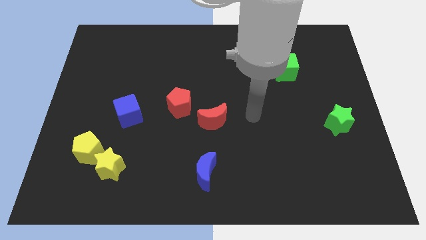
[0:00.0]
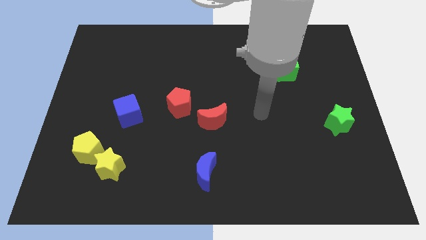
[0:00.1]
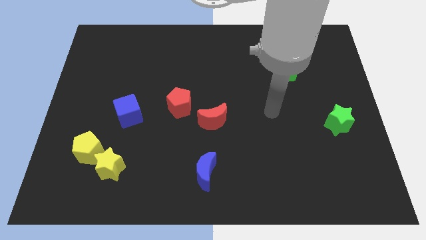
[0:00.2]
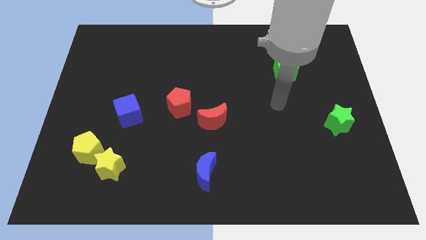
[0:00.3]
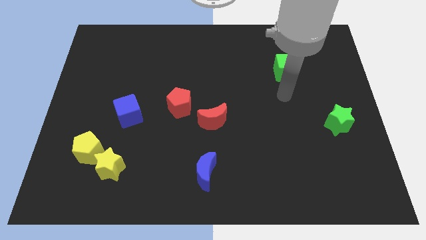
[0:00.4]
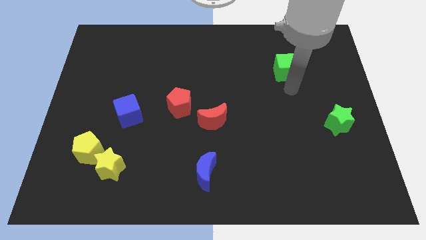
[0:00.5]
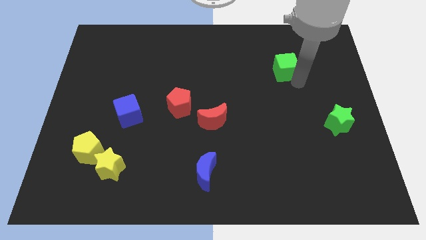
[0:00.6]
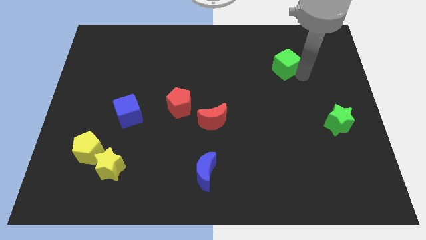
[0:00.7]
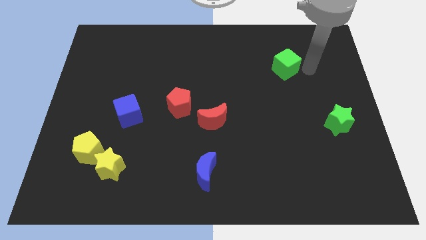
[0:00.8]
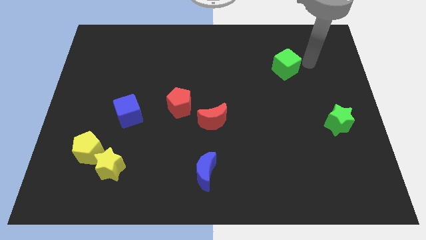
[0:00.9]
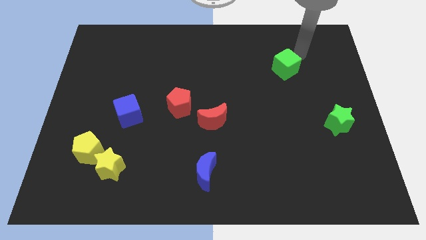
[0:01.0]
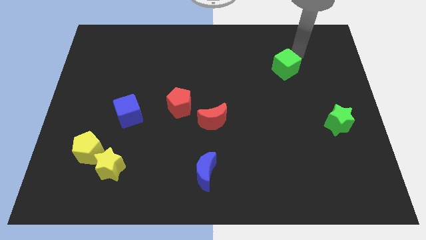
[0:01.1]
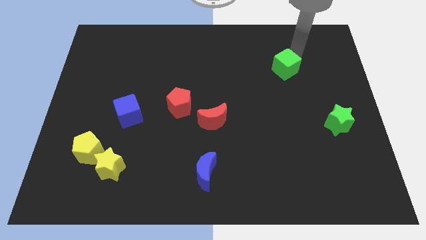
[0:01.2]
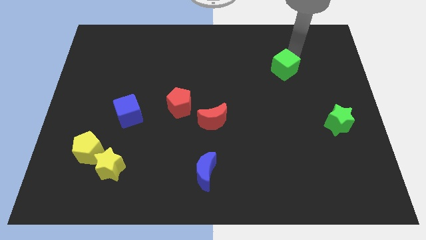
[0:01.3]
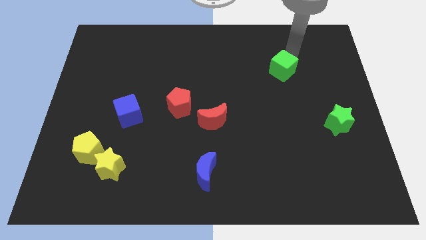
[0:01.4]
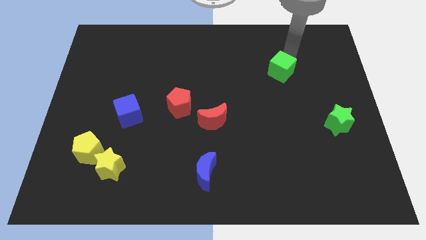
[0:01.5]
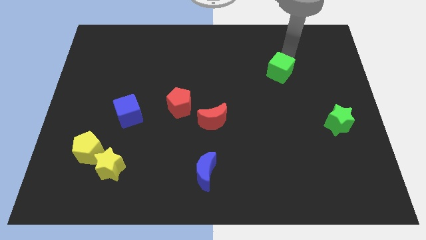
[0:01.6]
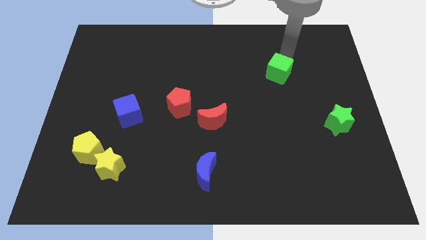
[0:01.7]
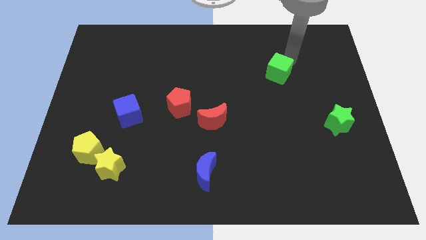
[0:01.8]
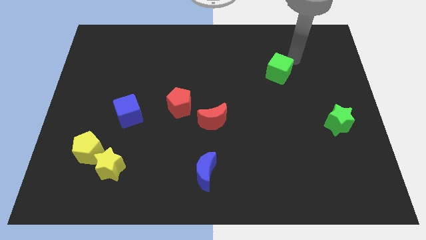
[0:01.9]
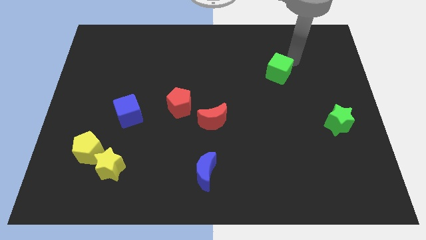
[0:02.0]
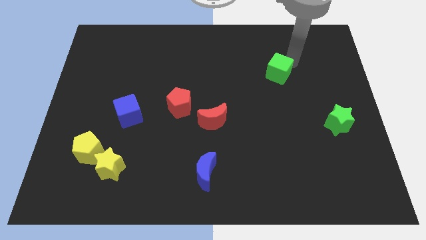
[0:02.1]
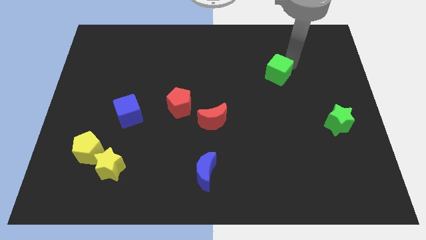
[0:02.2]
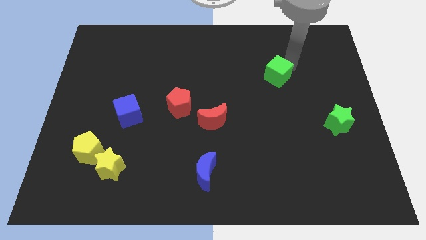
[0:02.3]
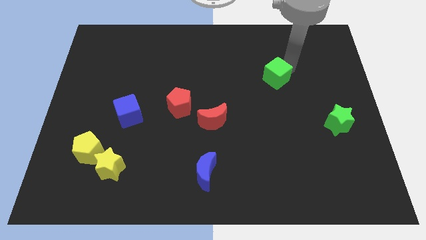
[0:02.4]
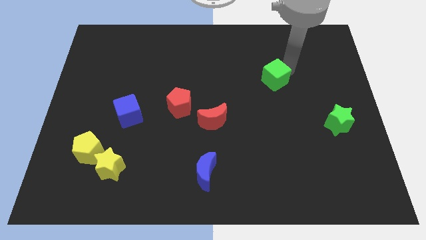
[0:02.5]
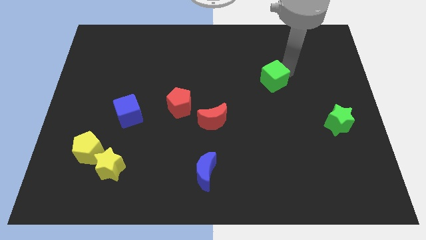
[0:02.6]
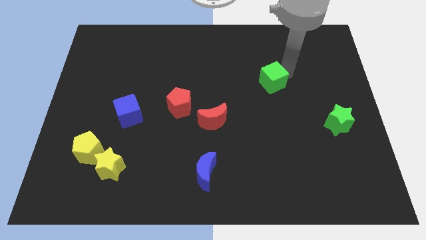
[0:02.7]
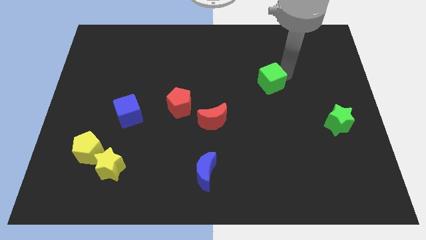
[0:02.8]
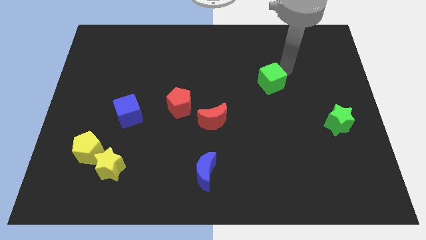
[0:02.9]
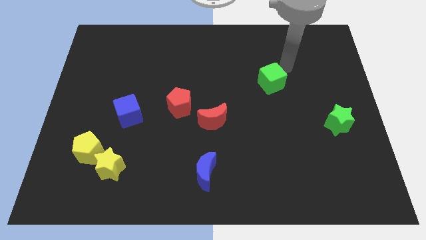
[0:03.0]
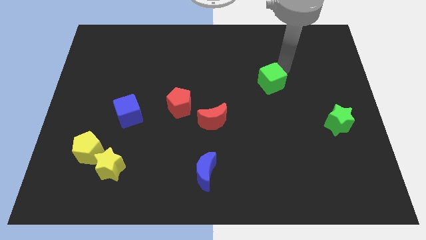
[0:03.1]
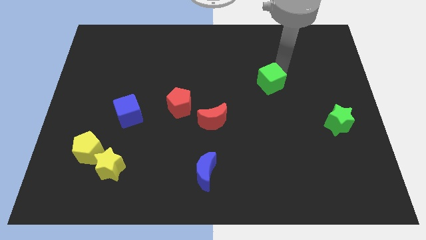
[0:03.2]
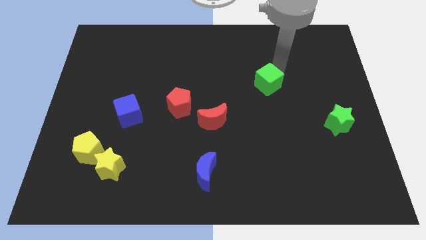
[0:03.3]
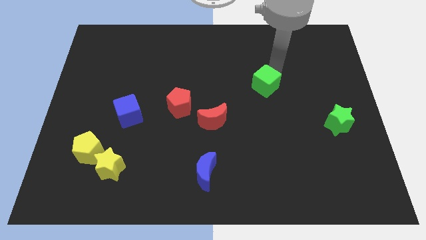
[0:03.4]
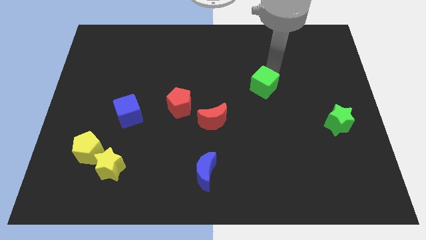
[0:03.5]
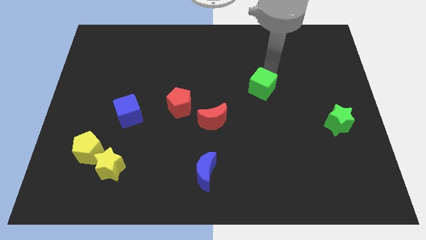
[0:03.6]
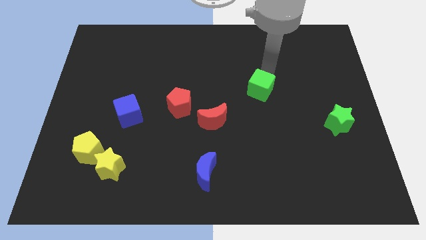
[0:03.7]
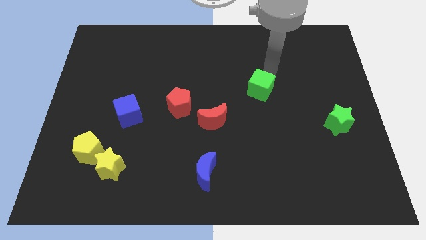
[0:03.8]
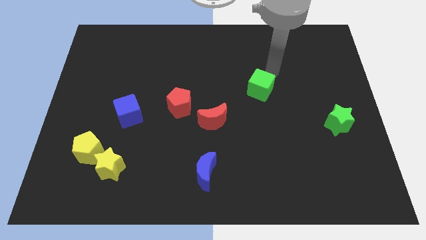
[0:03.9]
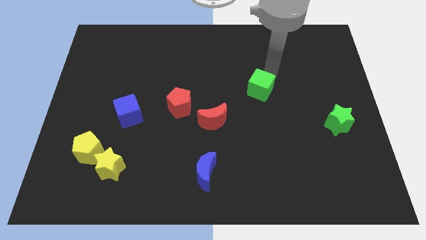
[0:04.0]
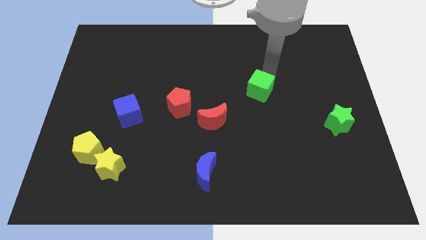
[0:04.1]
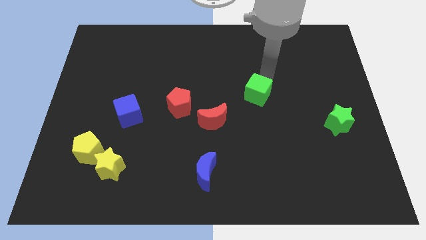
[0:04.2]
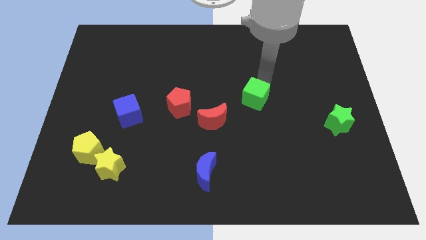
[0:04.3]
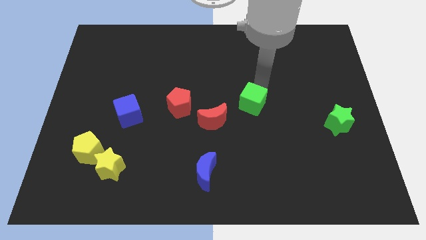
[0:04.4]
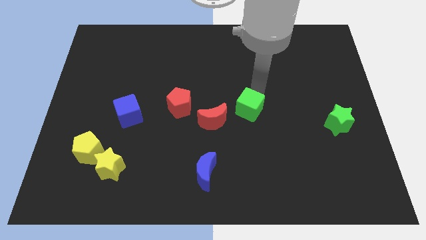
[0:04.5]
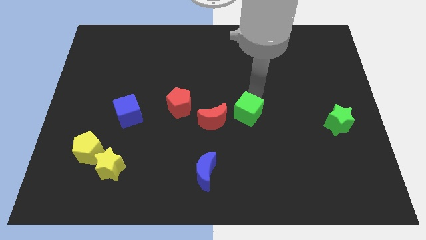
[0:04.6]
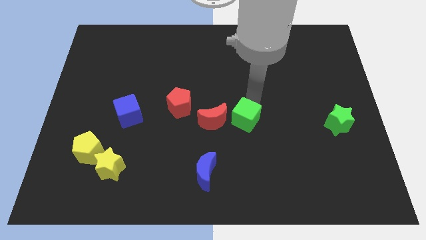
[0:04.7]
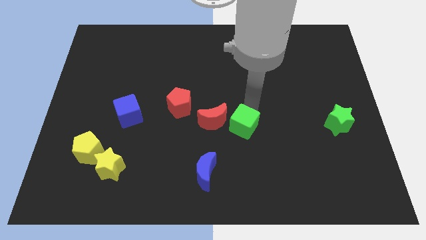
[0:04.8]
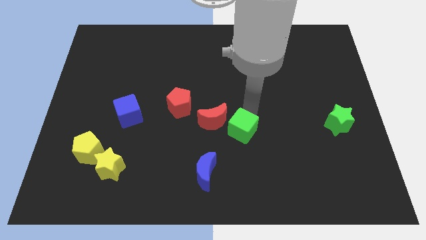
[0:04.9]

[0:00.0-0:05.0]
slide the green cube diagonally down and left

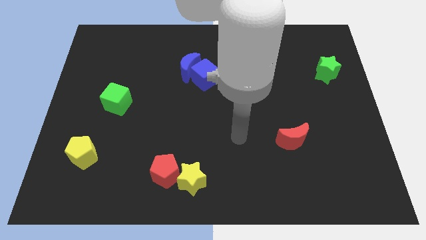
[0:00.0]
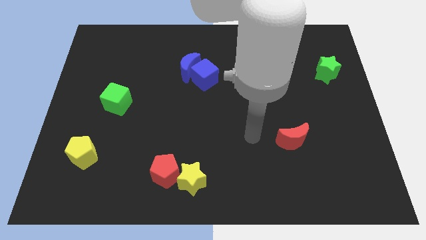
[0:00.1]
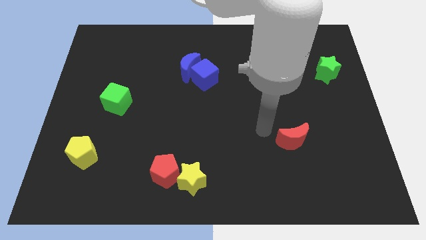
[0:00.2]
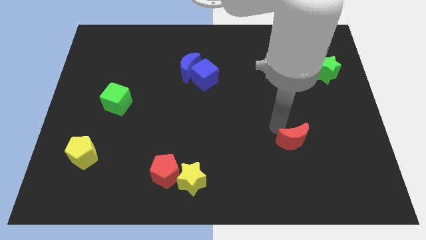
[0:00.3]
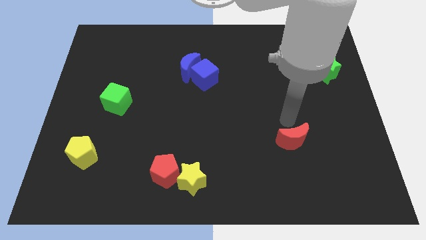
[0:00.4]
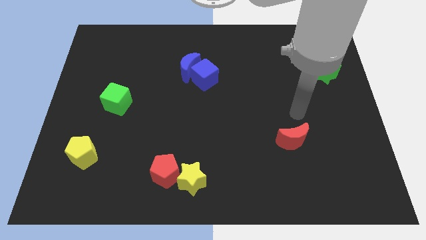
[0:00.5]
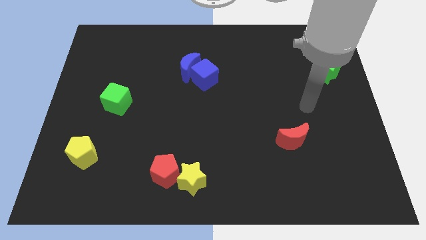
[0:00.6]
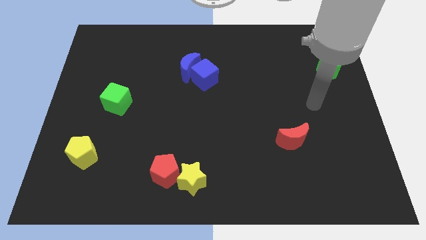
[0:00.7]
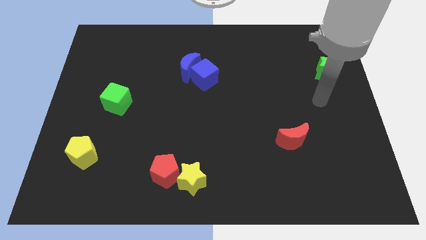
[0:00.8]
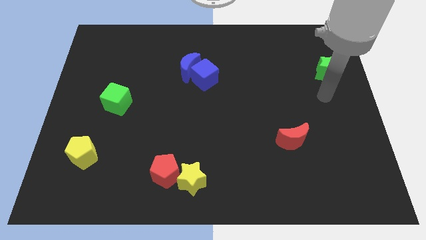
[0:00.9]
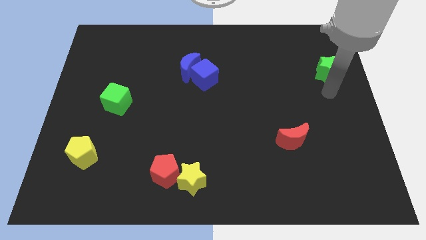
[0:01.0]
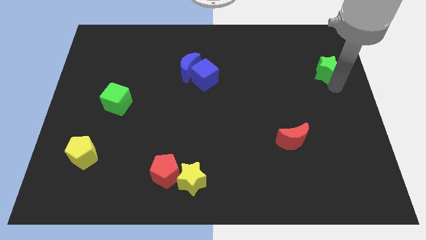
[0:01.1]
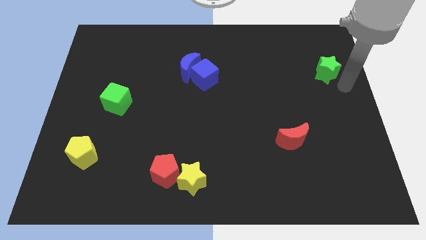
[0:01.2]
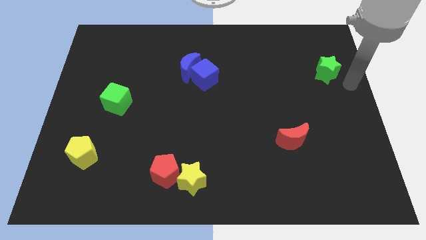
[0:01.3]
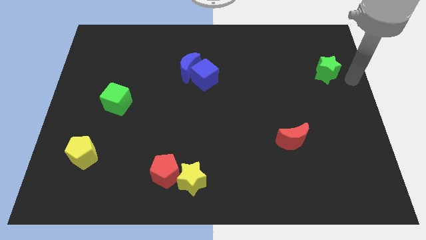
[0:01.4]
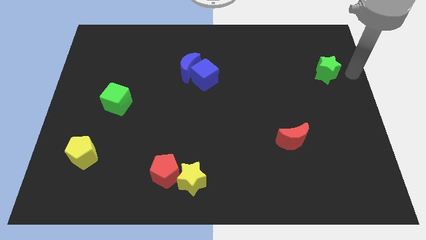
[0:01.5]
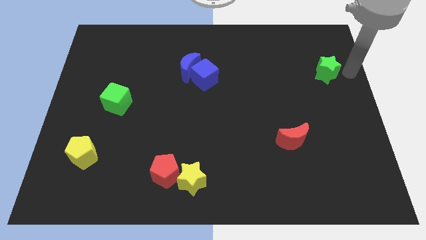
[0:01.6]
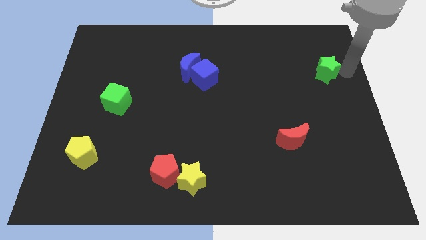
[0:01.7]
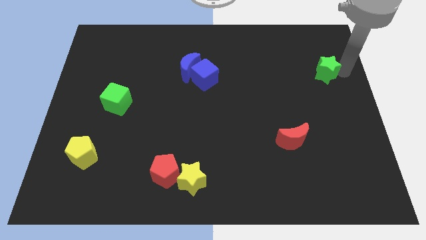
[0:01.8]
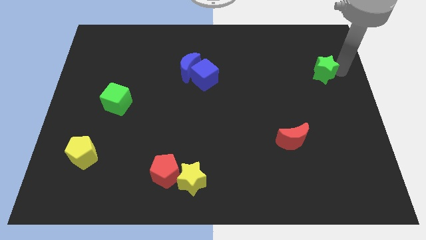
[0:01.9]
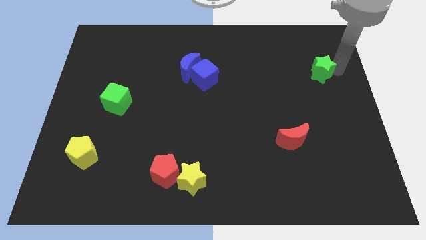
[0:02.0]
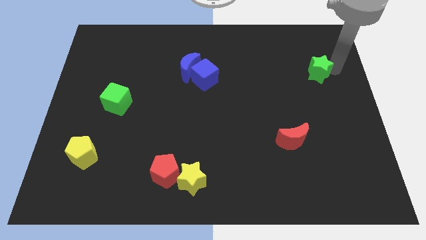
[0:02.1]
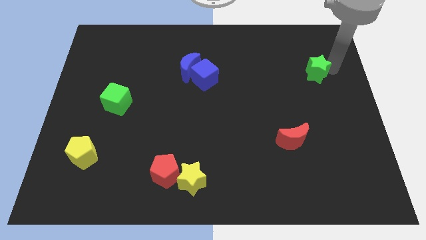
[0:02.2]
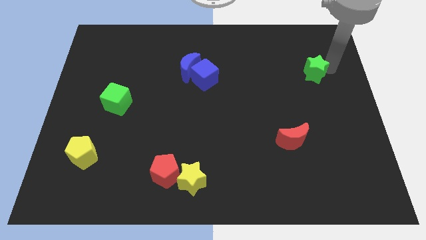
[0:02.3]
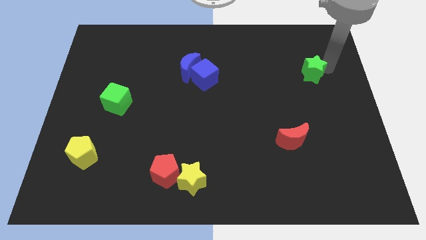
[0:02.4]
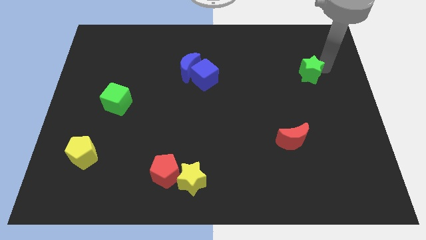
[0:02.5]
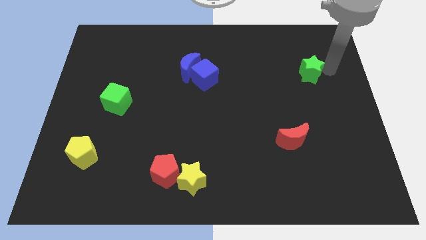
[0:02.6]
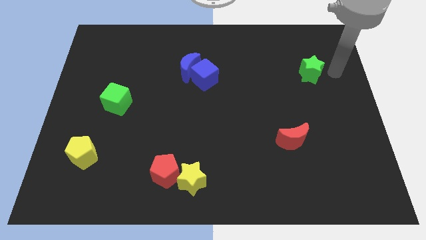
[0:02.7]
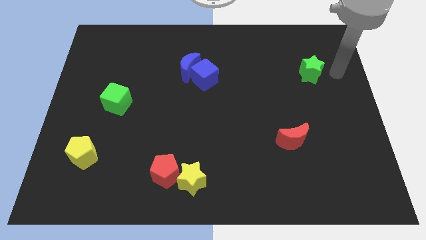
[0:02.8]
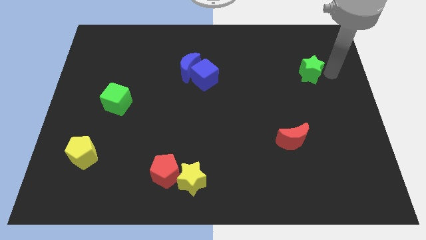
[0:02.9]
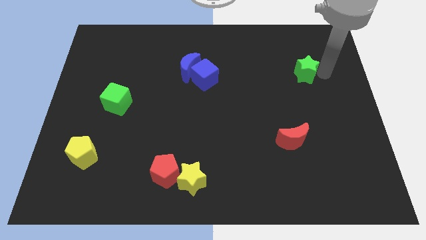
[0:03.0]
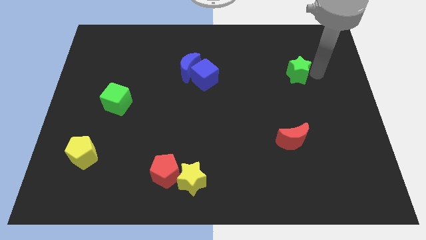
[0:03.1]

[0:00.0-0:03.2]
slightly push the green star to the left
